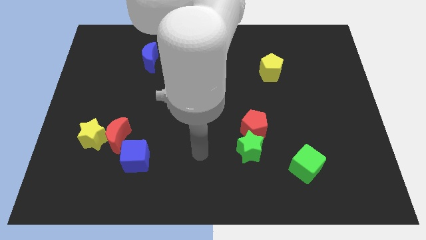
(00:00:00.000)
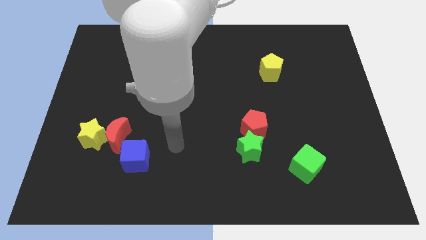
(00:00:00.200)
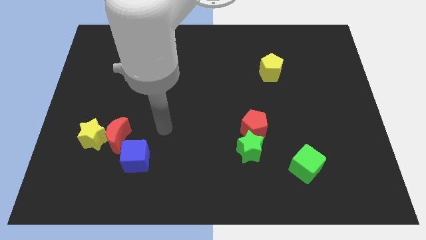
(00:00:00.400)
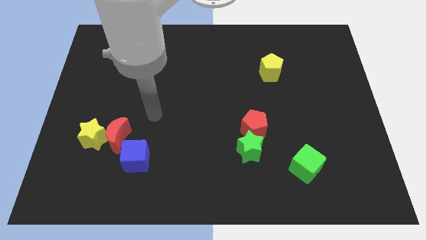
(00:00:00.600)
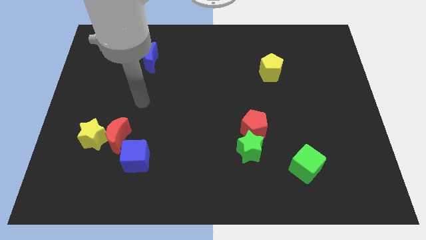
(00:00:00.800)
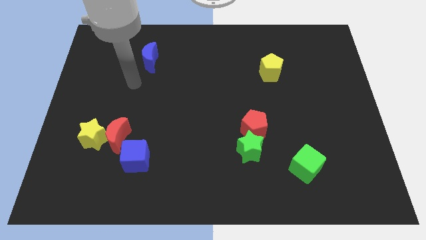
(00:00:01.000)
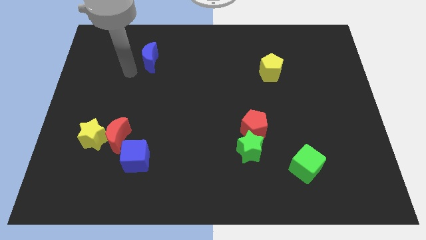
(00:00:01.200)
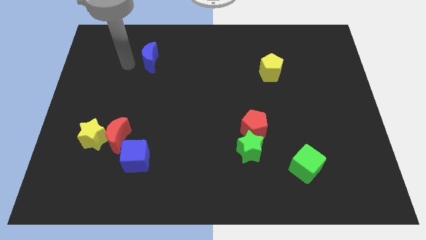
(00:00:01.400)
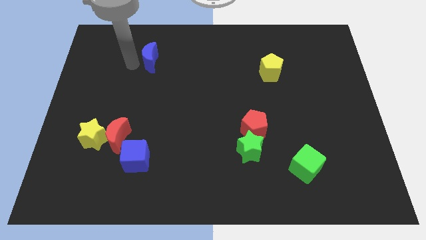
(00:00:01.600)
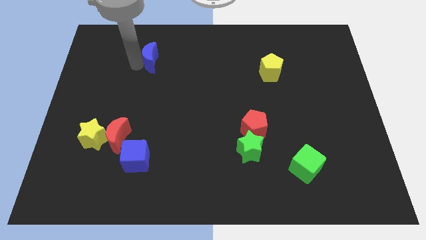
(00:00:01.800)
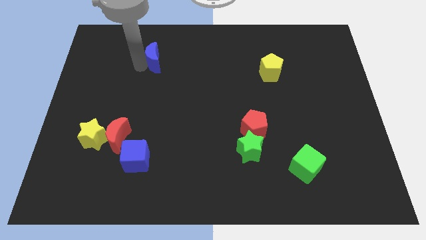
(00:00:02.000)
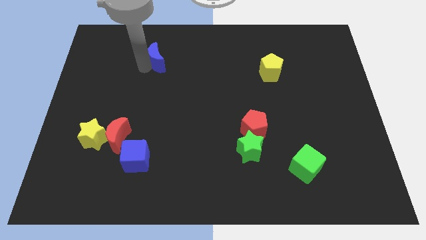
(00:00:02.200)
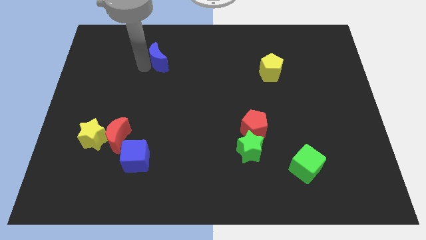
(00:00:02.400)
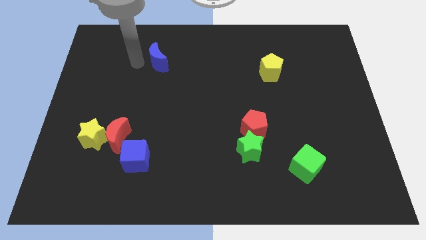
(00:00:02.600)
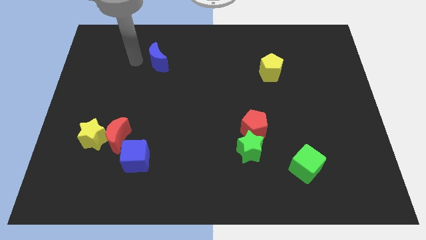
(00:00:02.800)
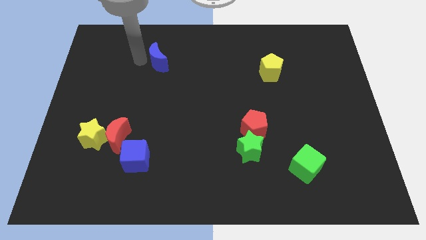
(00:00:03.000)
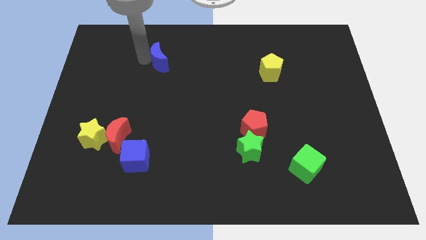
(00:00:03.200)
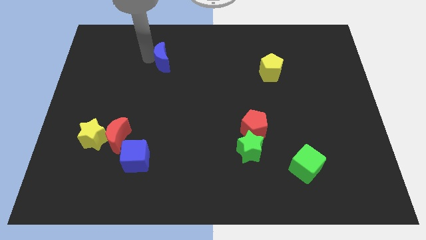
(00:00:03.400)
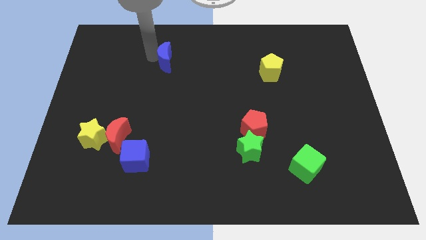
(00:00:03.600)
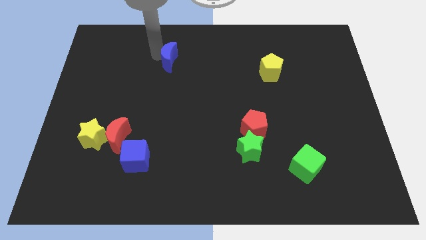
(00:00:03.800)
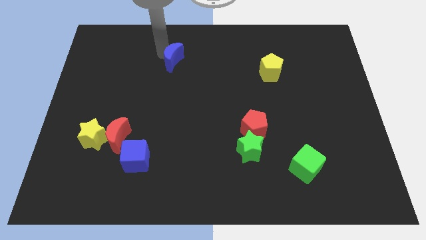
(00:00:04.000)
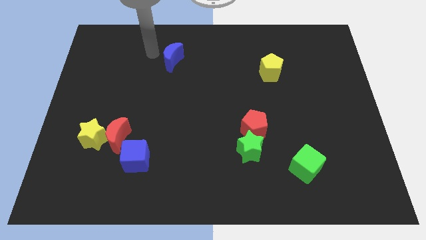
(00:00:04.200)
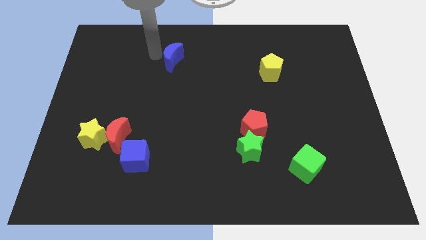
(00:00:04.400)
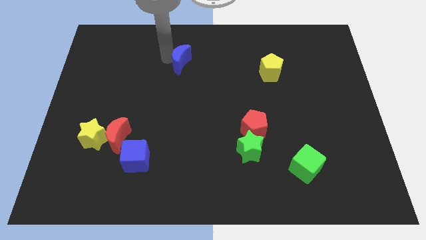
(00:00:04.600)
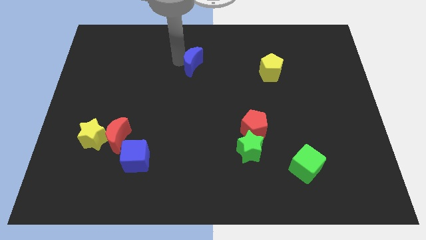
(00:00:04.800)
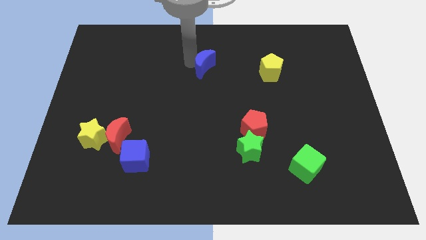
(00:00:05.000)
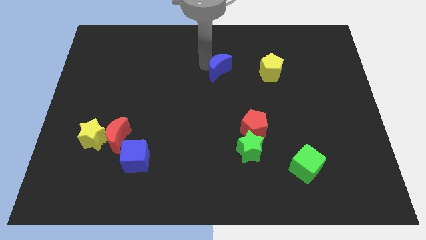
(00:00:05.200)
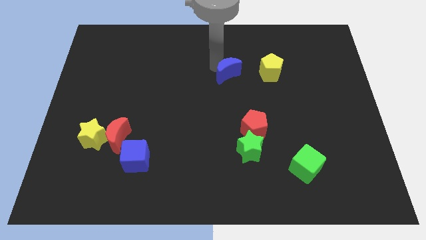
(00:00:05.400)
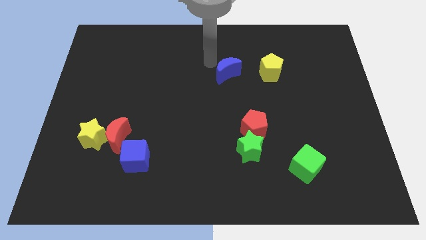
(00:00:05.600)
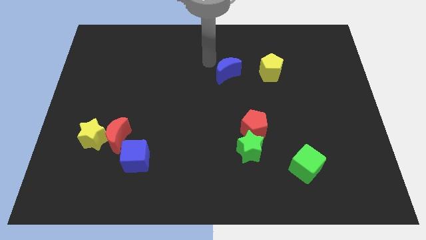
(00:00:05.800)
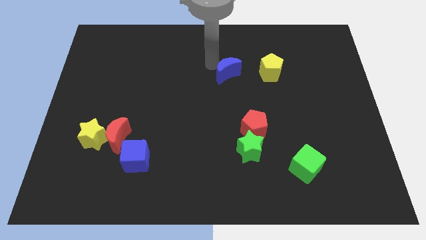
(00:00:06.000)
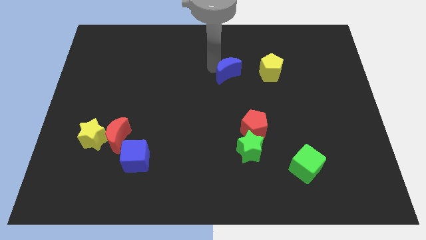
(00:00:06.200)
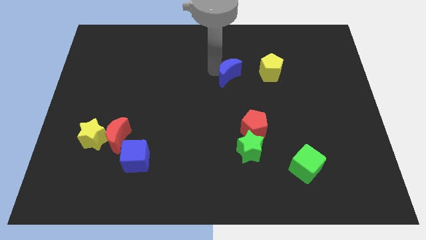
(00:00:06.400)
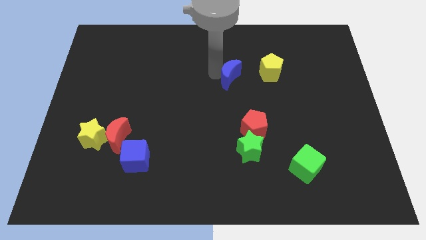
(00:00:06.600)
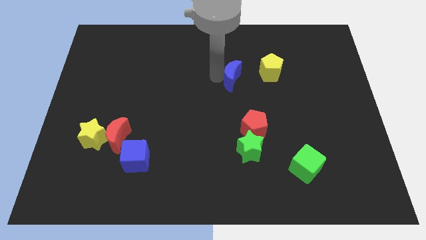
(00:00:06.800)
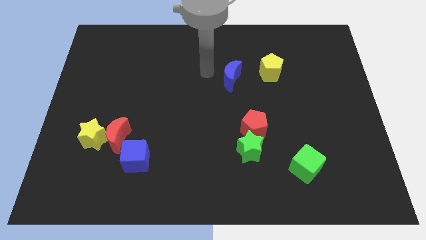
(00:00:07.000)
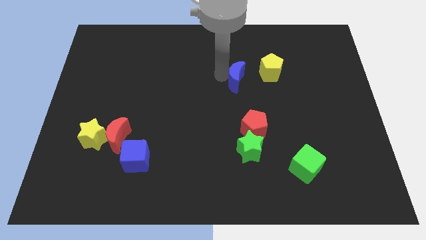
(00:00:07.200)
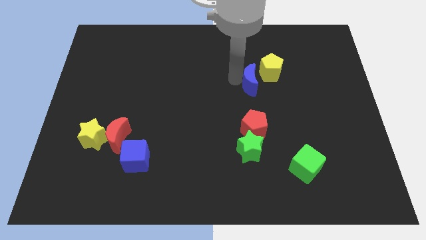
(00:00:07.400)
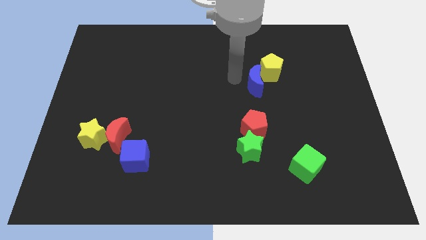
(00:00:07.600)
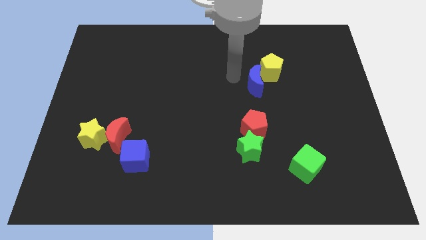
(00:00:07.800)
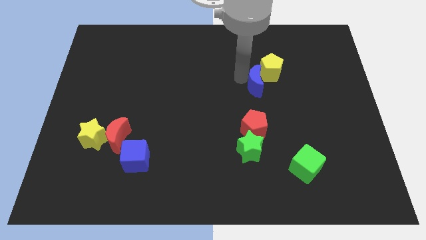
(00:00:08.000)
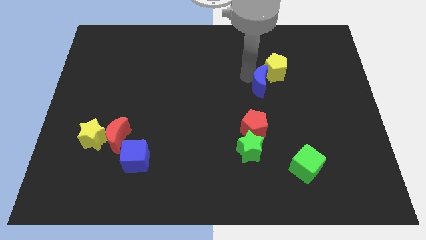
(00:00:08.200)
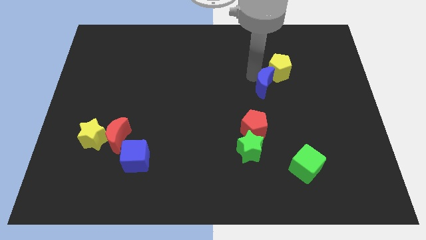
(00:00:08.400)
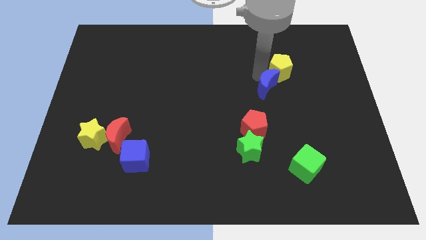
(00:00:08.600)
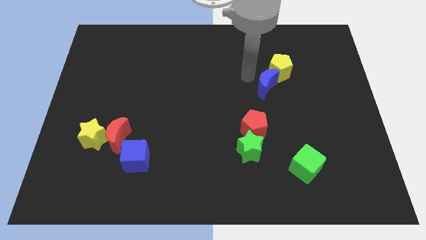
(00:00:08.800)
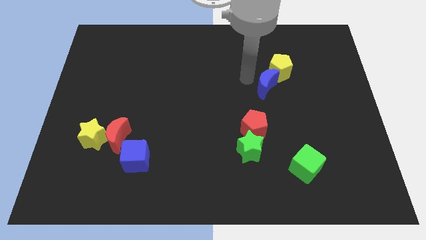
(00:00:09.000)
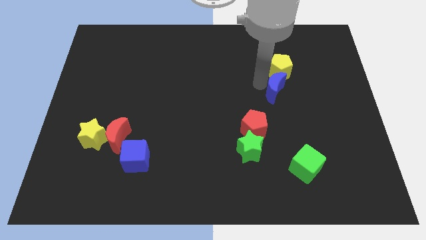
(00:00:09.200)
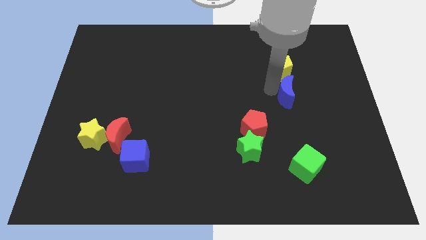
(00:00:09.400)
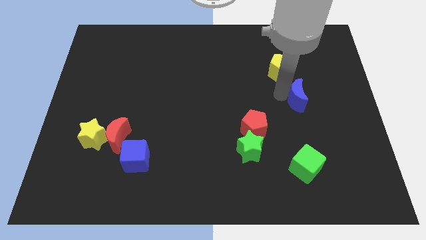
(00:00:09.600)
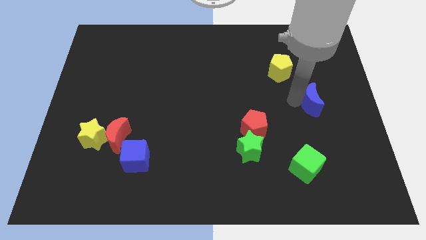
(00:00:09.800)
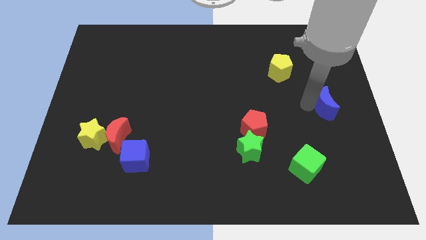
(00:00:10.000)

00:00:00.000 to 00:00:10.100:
slide the blue moon to the right side

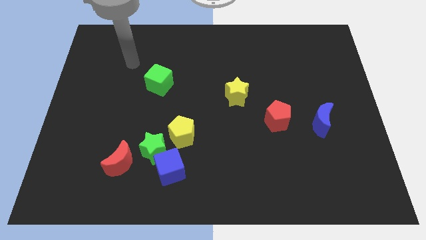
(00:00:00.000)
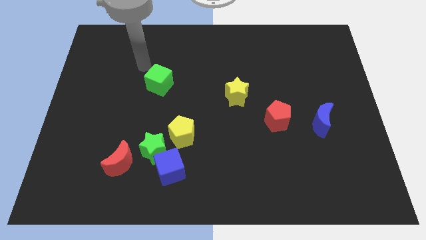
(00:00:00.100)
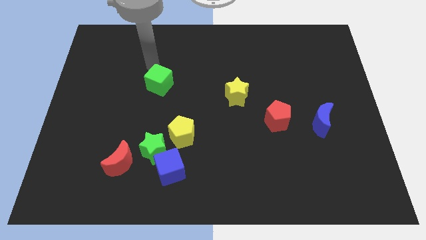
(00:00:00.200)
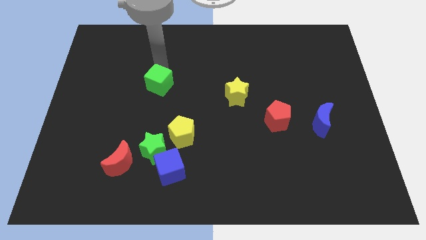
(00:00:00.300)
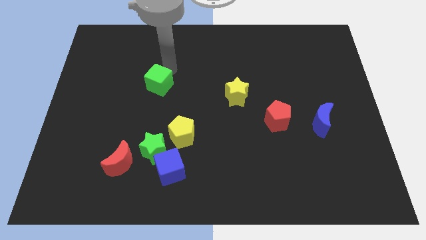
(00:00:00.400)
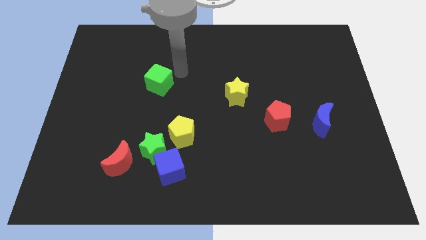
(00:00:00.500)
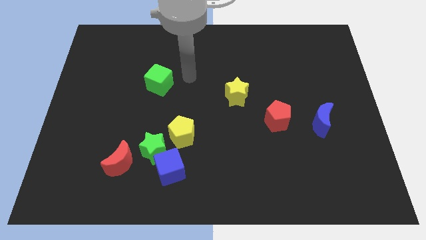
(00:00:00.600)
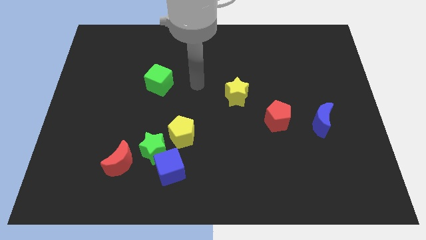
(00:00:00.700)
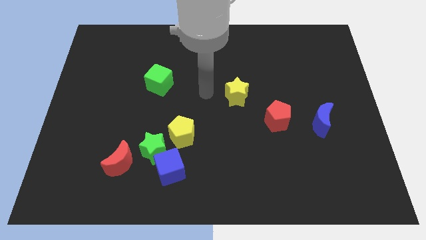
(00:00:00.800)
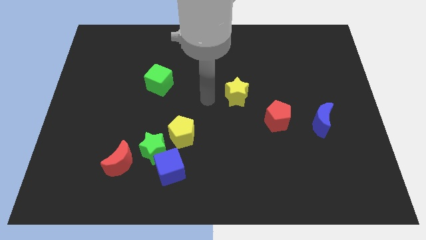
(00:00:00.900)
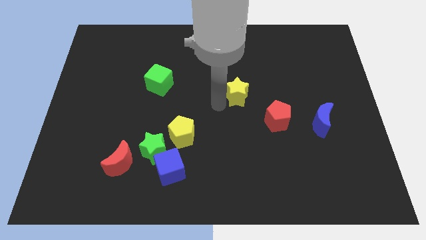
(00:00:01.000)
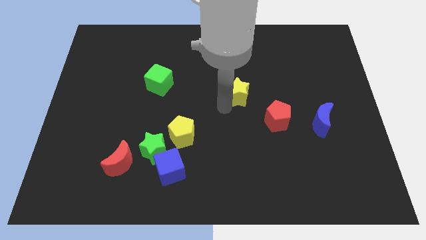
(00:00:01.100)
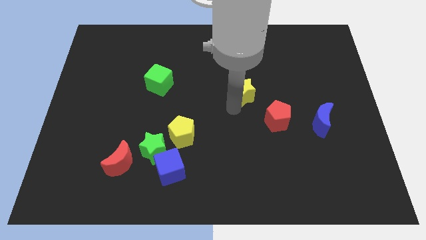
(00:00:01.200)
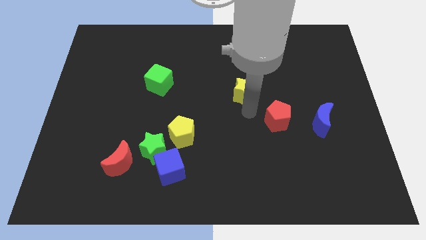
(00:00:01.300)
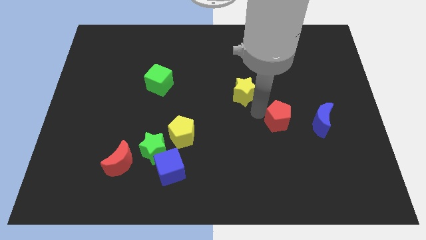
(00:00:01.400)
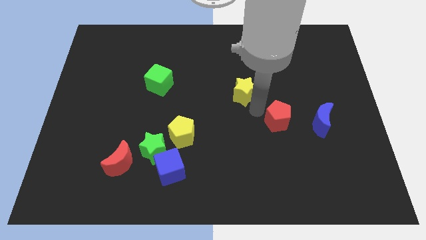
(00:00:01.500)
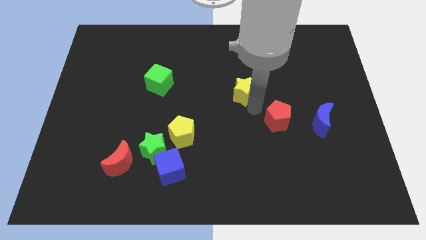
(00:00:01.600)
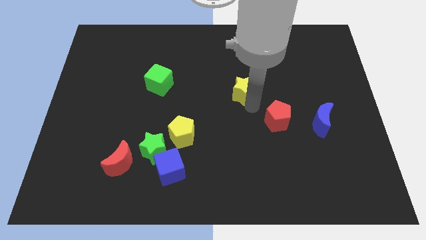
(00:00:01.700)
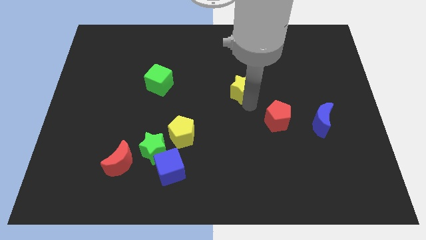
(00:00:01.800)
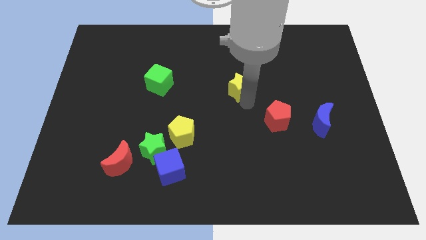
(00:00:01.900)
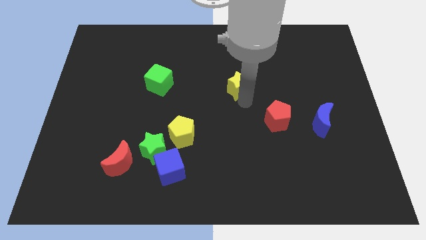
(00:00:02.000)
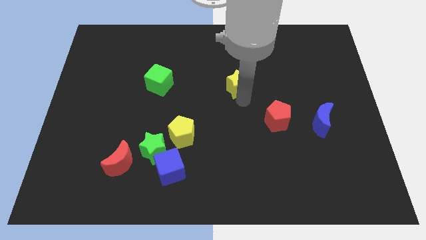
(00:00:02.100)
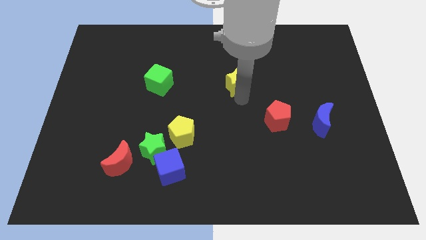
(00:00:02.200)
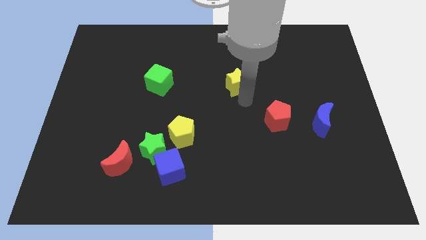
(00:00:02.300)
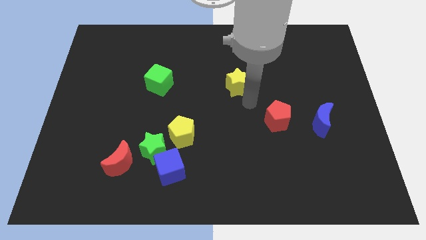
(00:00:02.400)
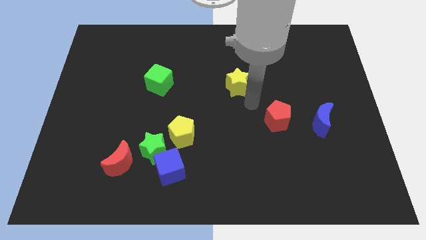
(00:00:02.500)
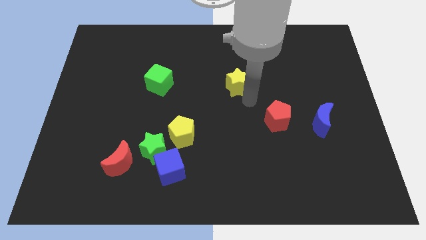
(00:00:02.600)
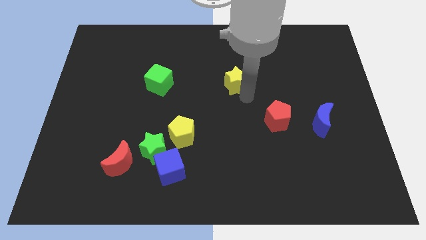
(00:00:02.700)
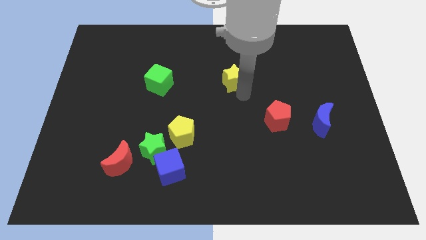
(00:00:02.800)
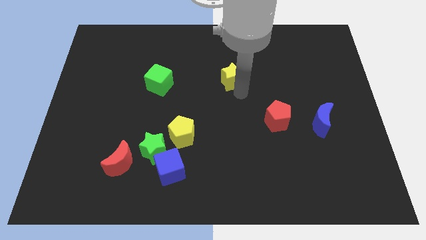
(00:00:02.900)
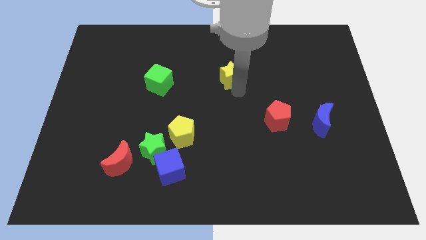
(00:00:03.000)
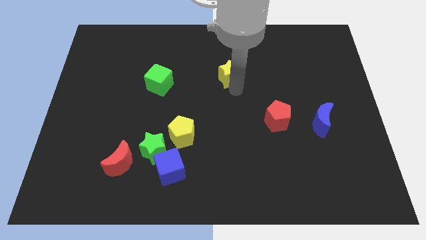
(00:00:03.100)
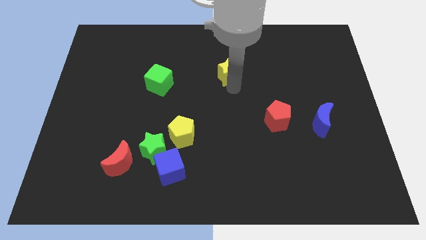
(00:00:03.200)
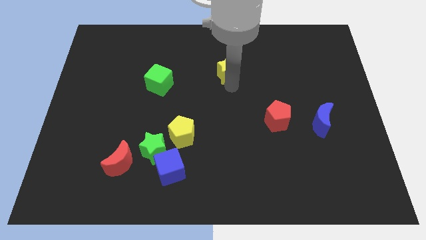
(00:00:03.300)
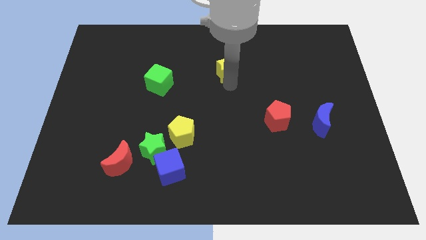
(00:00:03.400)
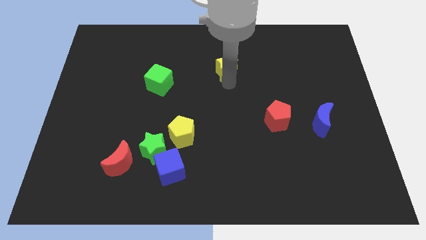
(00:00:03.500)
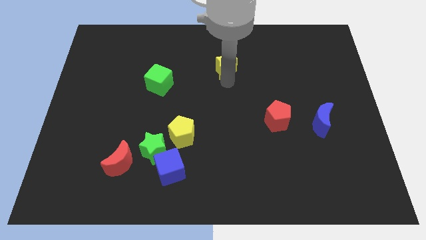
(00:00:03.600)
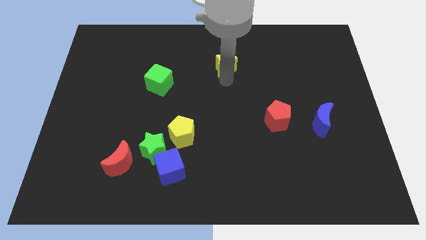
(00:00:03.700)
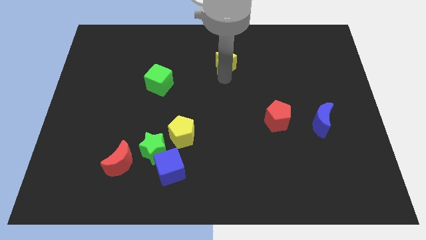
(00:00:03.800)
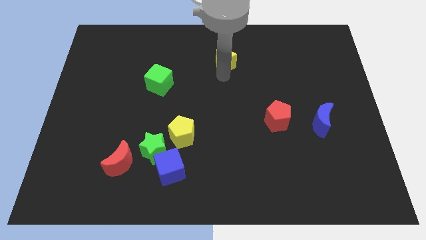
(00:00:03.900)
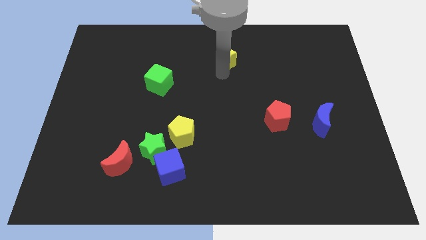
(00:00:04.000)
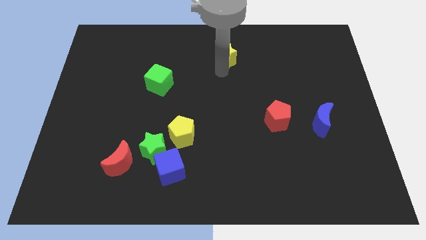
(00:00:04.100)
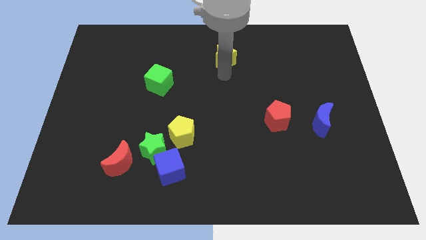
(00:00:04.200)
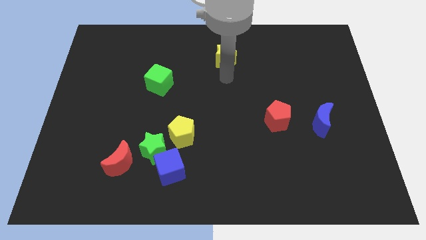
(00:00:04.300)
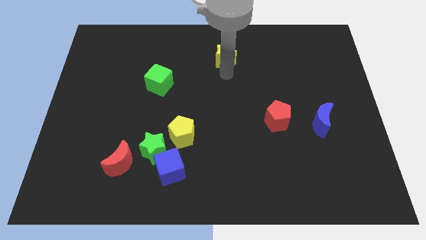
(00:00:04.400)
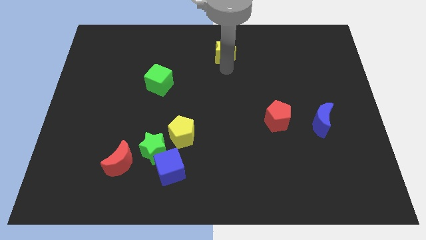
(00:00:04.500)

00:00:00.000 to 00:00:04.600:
put the yellow star to the top
